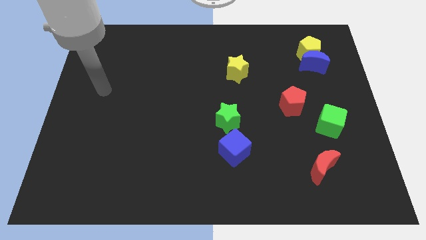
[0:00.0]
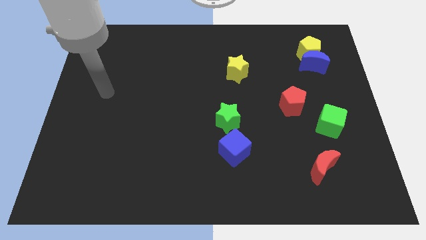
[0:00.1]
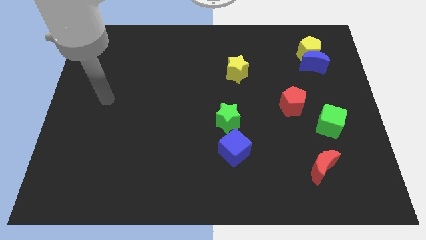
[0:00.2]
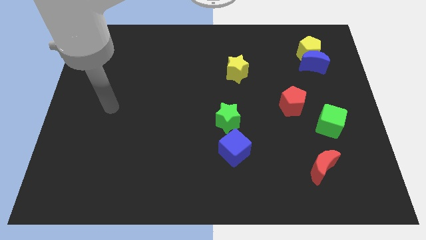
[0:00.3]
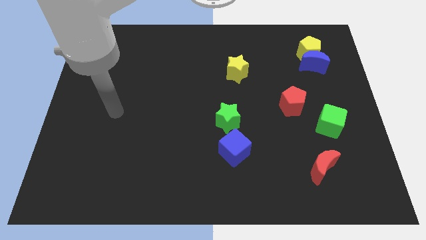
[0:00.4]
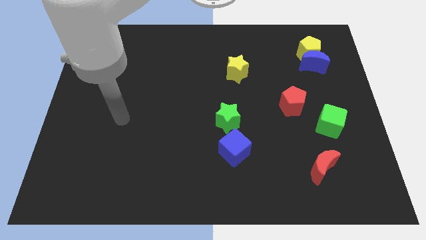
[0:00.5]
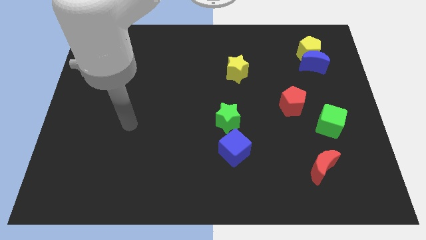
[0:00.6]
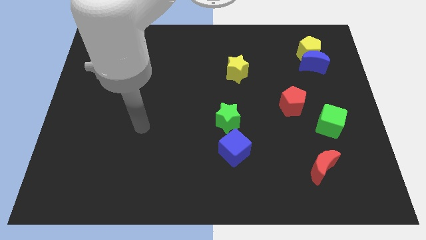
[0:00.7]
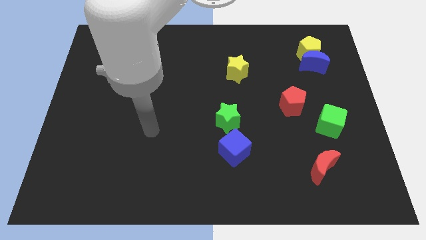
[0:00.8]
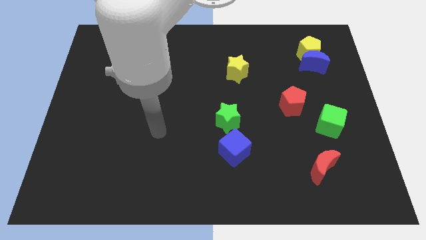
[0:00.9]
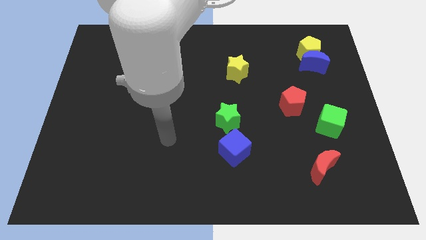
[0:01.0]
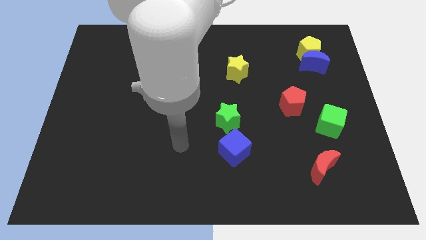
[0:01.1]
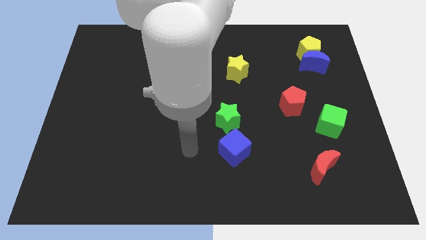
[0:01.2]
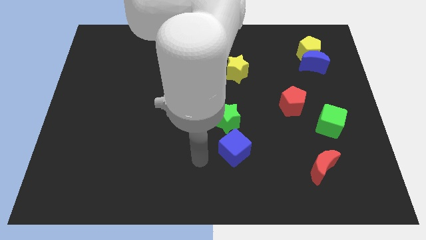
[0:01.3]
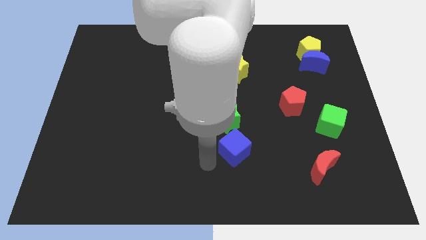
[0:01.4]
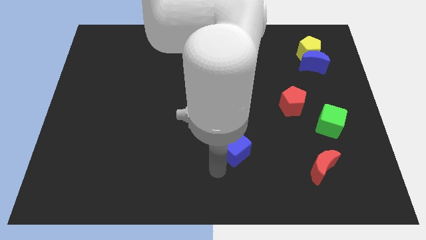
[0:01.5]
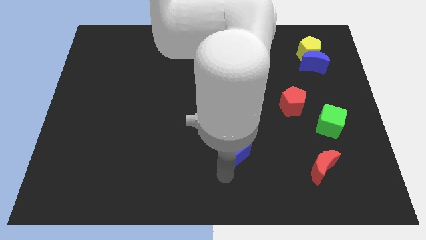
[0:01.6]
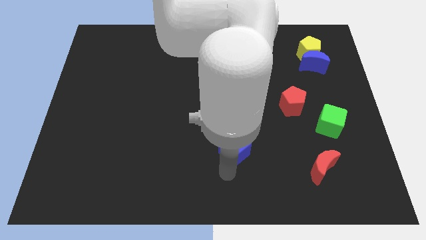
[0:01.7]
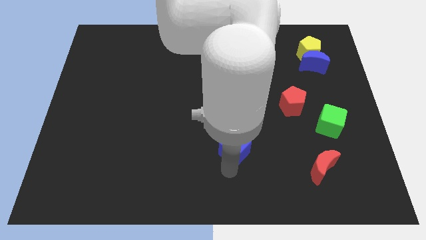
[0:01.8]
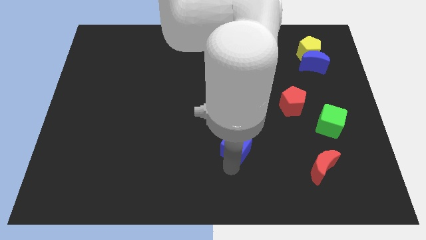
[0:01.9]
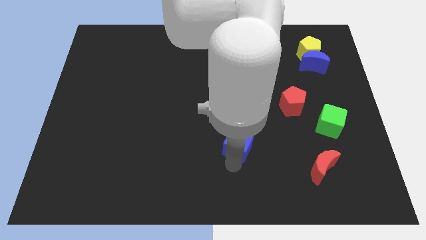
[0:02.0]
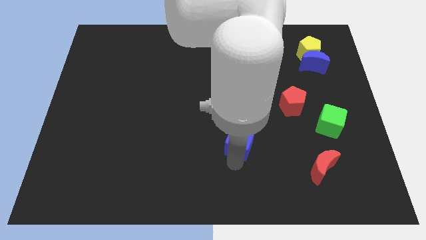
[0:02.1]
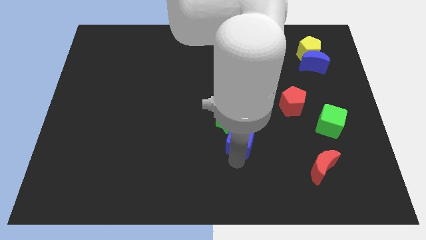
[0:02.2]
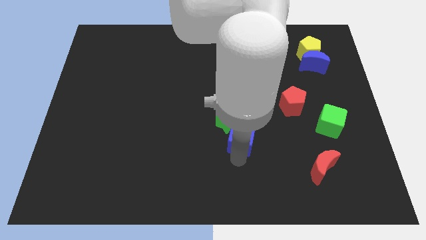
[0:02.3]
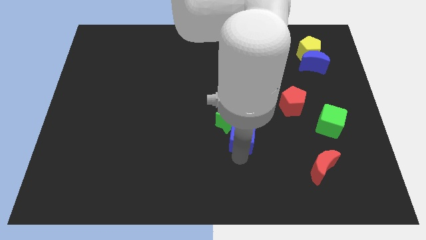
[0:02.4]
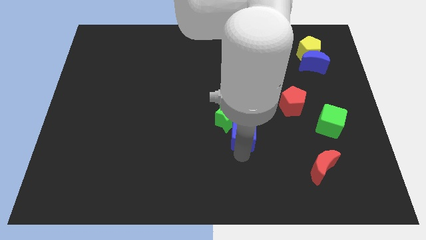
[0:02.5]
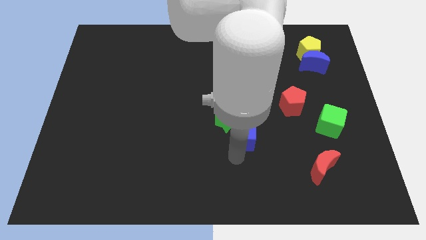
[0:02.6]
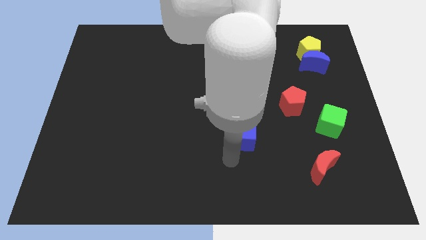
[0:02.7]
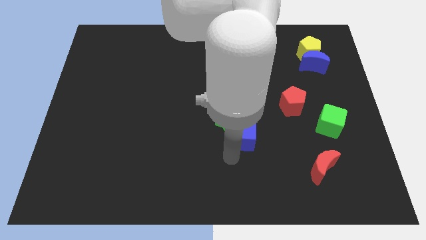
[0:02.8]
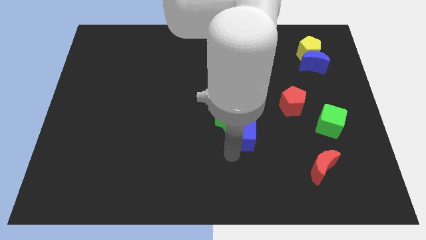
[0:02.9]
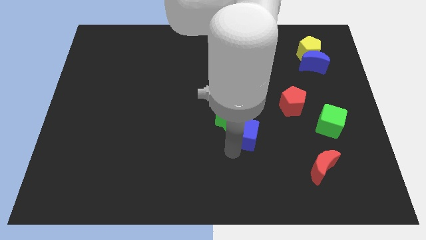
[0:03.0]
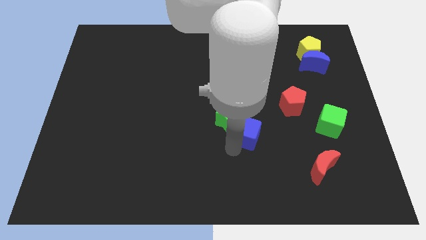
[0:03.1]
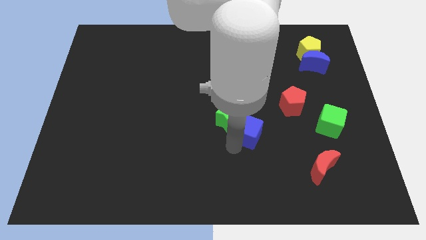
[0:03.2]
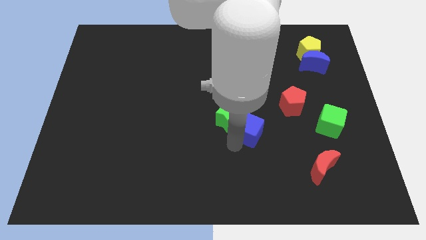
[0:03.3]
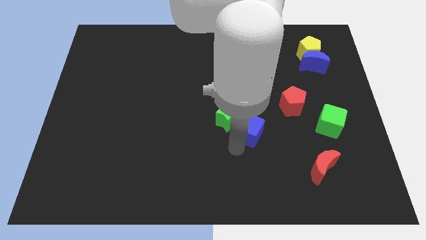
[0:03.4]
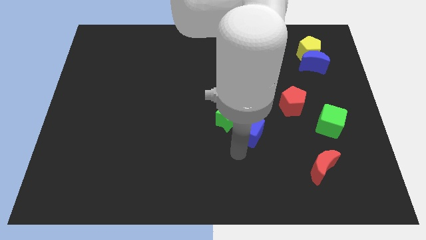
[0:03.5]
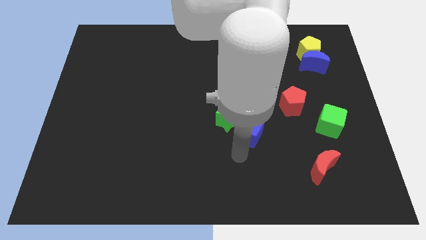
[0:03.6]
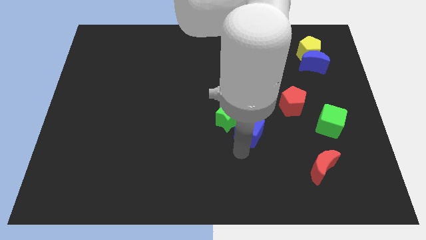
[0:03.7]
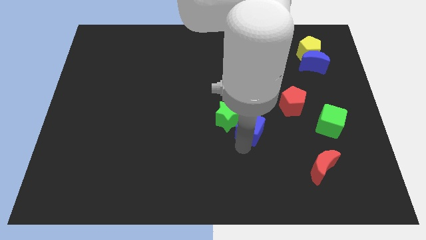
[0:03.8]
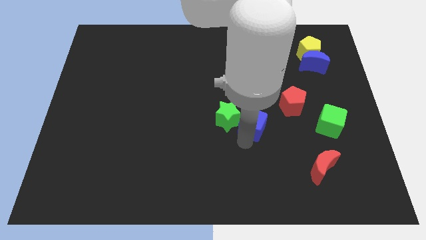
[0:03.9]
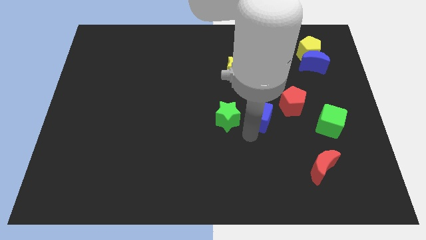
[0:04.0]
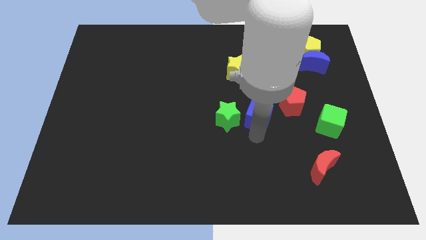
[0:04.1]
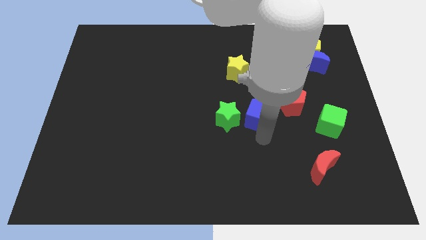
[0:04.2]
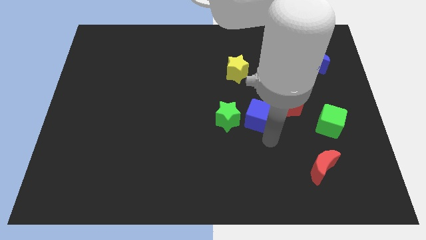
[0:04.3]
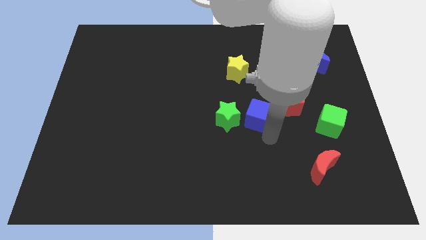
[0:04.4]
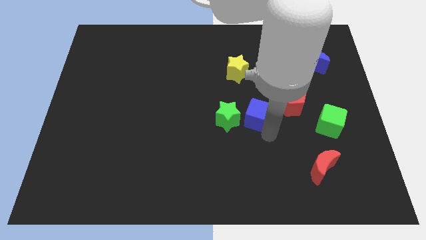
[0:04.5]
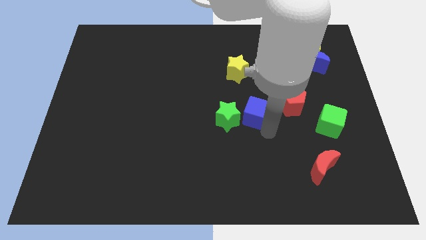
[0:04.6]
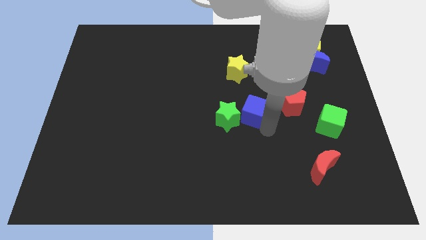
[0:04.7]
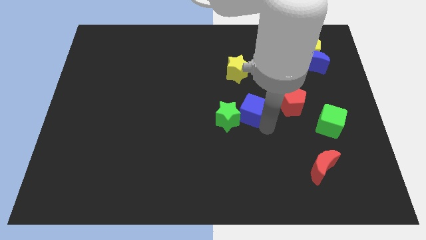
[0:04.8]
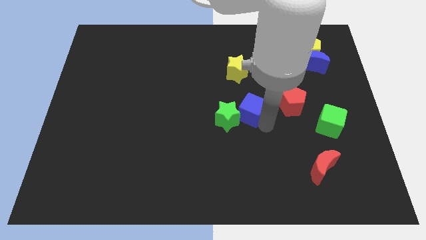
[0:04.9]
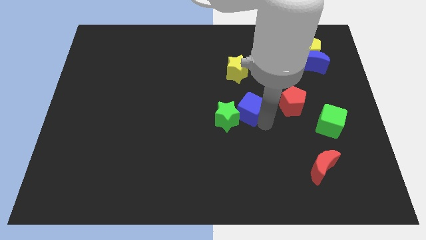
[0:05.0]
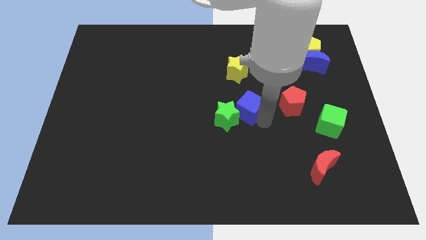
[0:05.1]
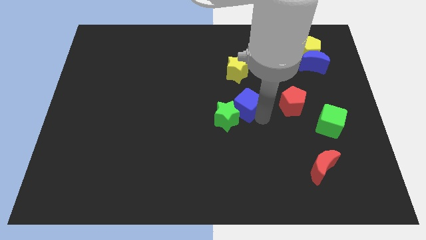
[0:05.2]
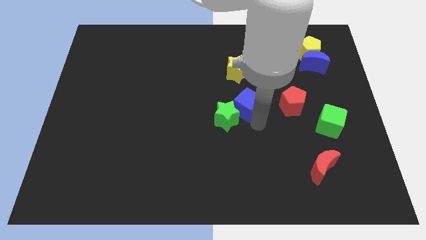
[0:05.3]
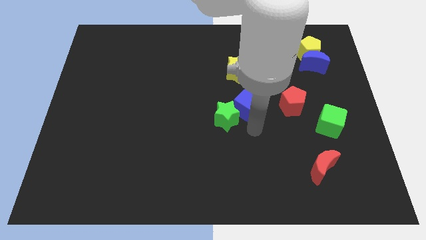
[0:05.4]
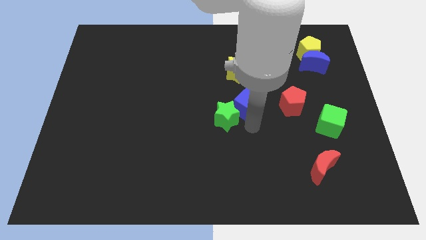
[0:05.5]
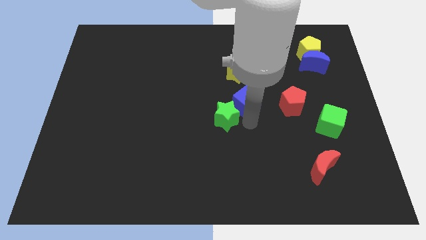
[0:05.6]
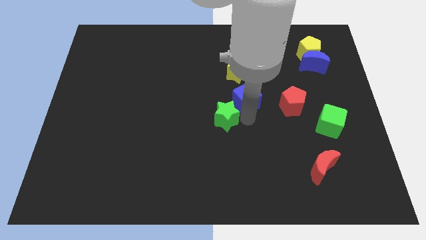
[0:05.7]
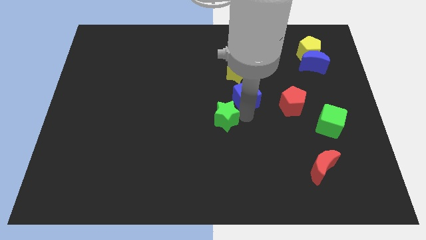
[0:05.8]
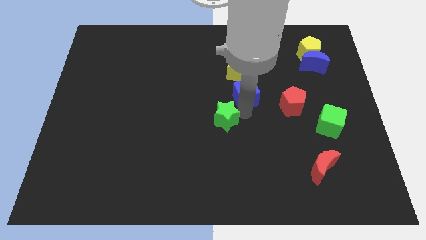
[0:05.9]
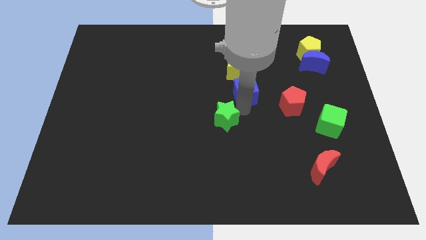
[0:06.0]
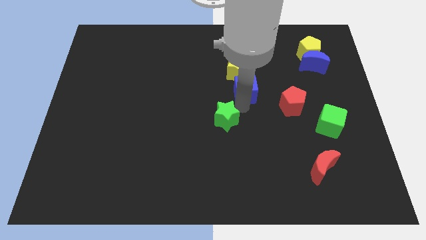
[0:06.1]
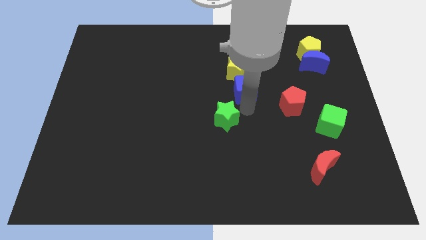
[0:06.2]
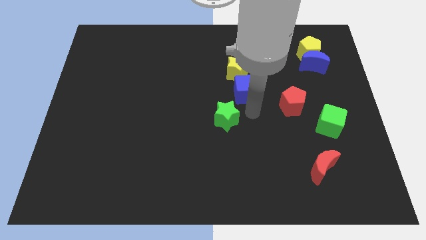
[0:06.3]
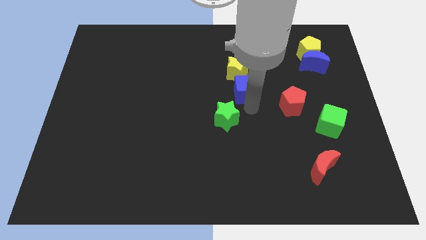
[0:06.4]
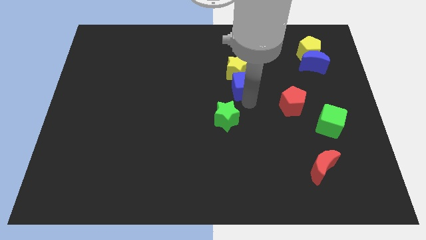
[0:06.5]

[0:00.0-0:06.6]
move the blue cube next to the yellow star

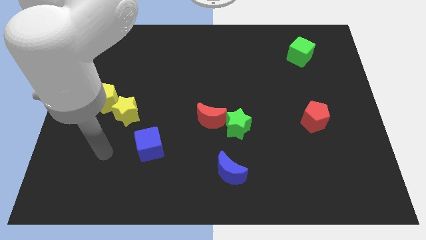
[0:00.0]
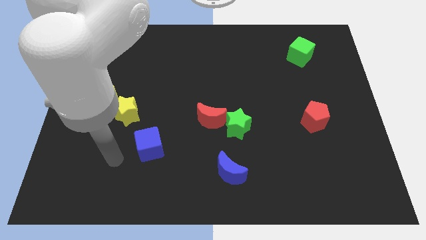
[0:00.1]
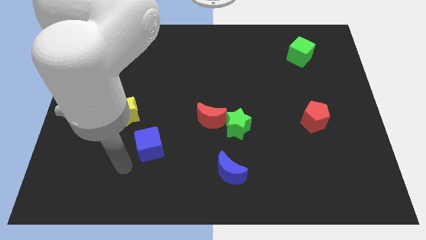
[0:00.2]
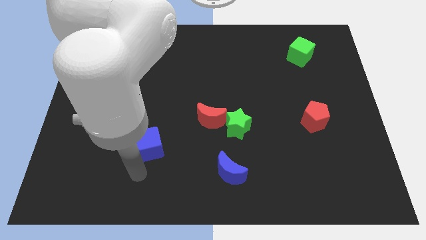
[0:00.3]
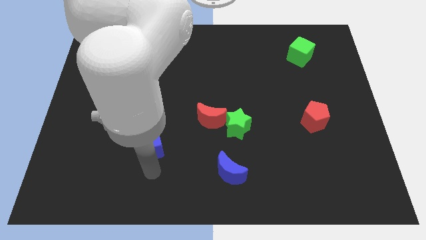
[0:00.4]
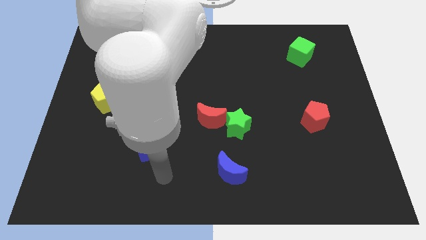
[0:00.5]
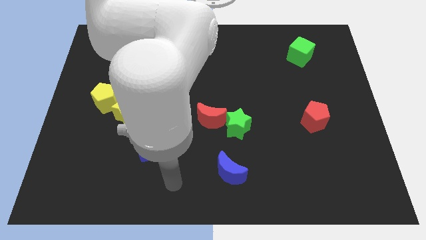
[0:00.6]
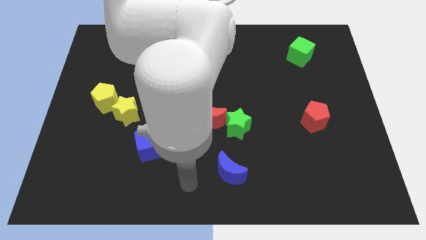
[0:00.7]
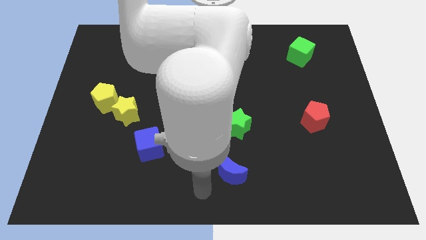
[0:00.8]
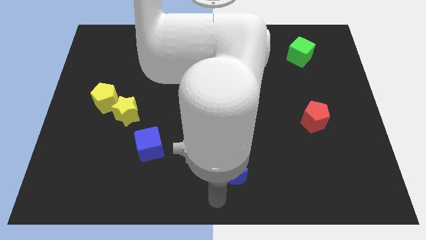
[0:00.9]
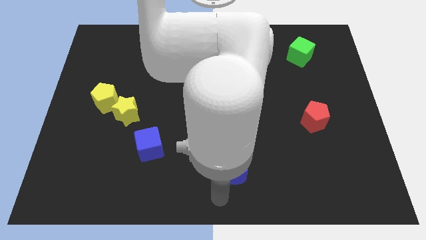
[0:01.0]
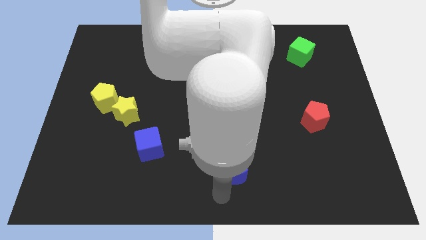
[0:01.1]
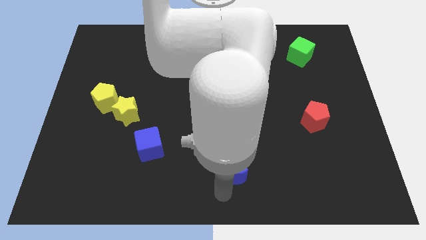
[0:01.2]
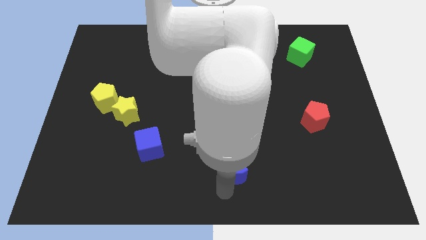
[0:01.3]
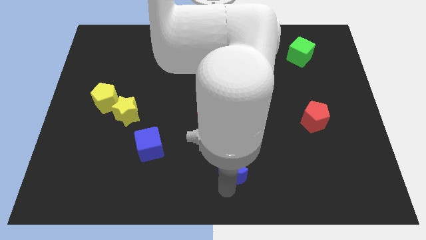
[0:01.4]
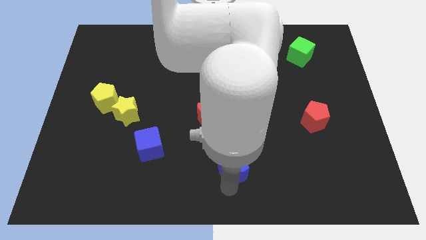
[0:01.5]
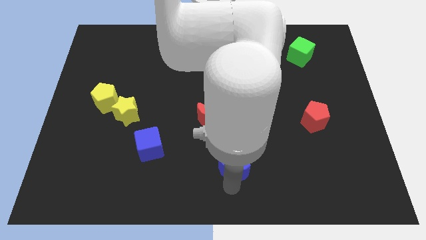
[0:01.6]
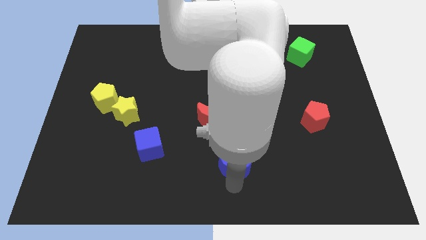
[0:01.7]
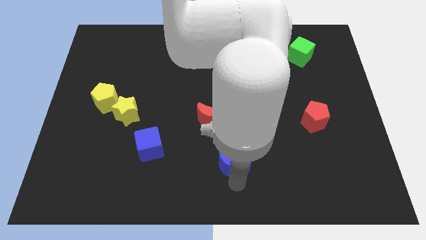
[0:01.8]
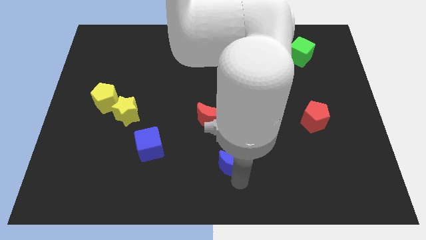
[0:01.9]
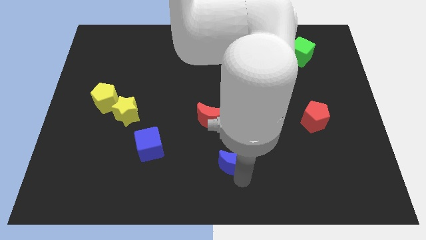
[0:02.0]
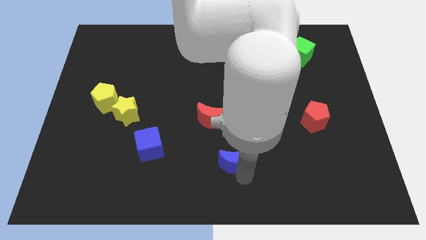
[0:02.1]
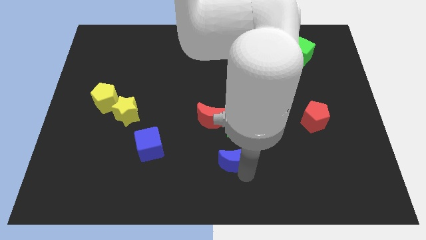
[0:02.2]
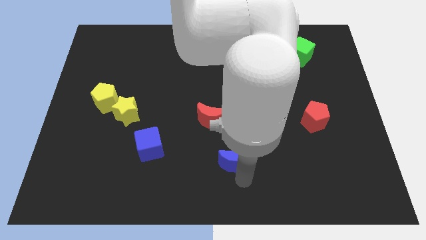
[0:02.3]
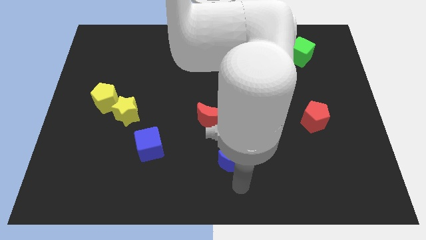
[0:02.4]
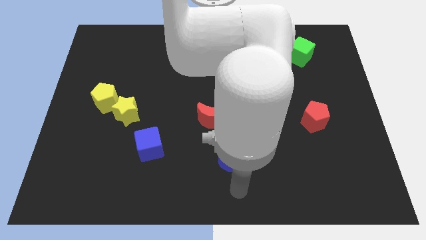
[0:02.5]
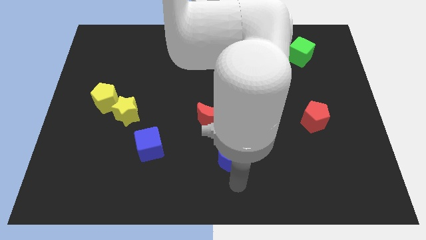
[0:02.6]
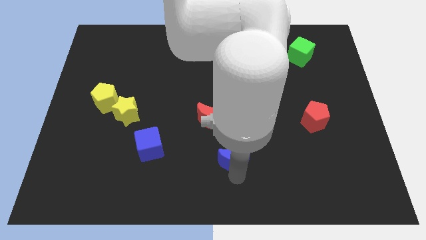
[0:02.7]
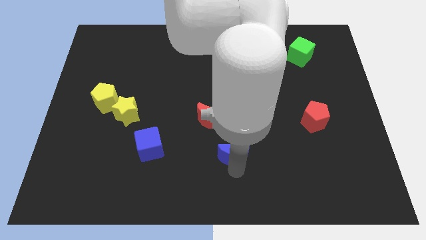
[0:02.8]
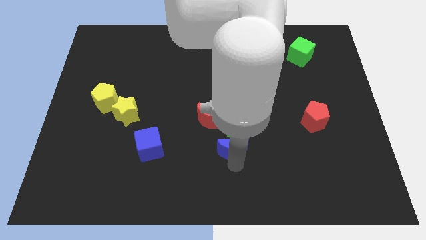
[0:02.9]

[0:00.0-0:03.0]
push the blue moon to the green star
